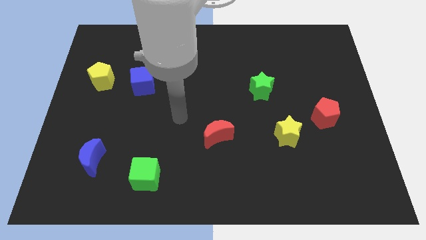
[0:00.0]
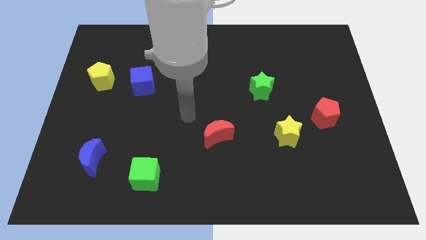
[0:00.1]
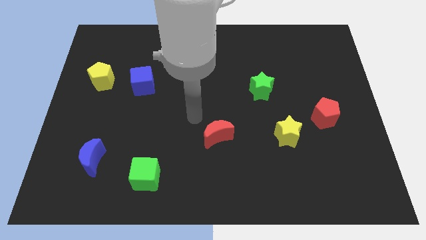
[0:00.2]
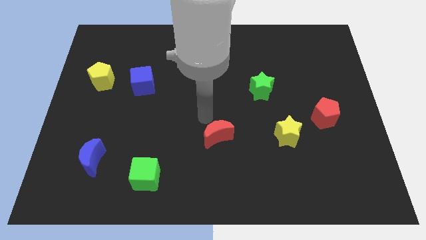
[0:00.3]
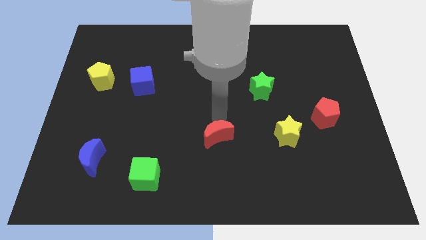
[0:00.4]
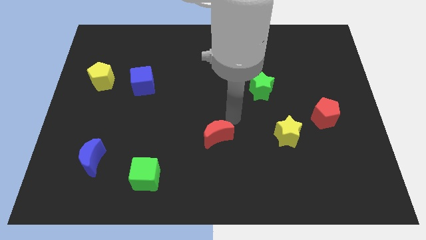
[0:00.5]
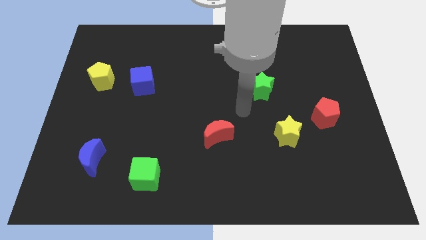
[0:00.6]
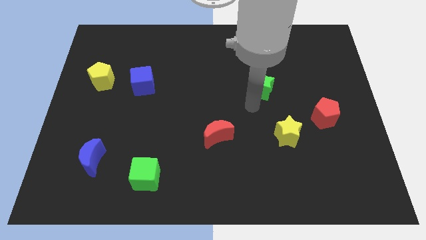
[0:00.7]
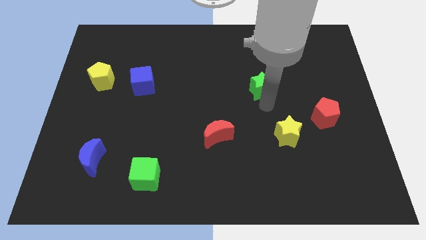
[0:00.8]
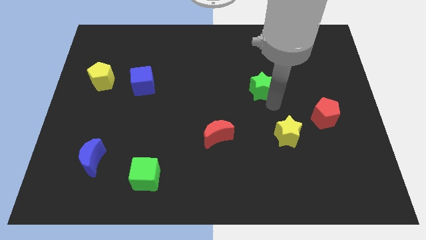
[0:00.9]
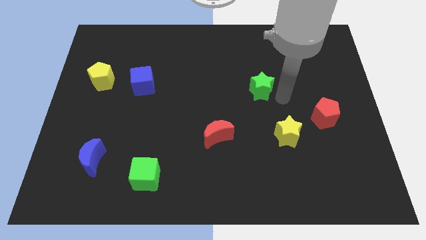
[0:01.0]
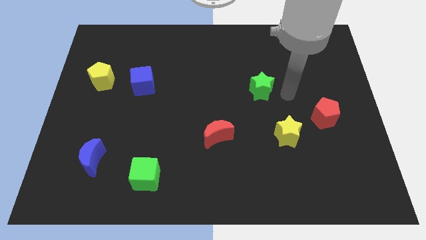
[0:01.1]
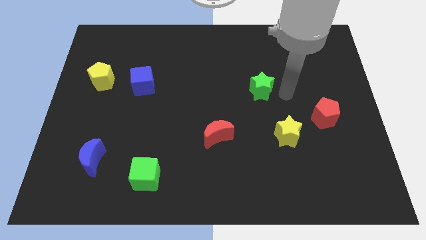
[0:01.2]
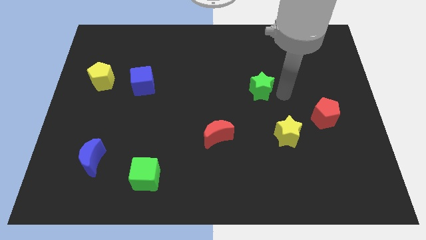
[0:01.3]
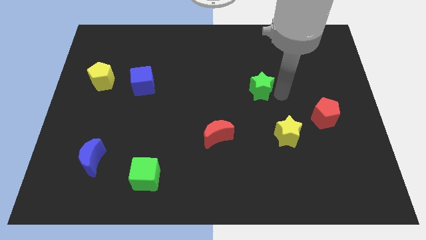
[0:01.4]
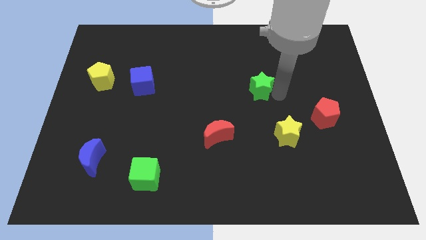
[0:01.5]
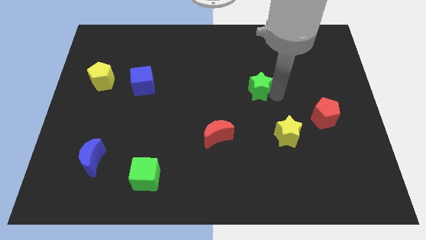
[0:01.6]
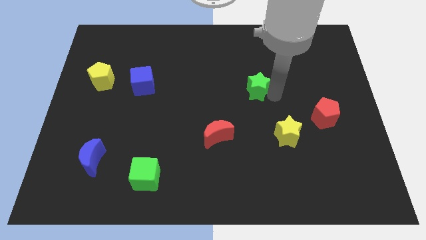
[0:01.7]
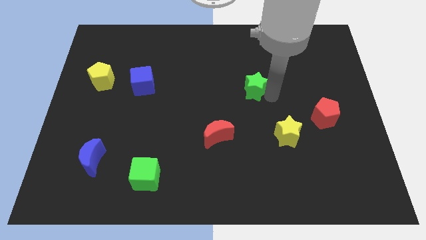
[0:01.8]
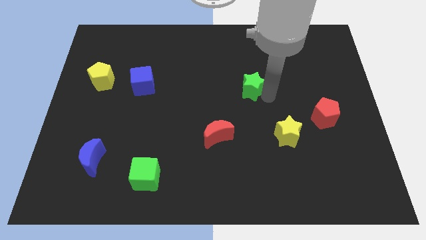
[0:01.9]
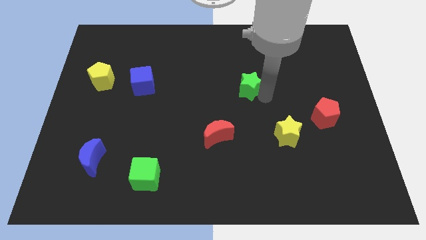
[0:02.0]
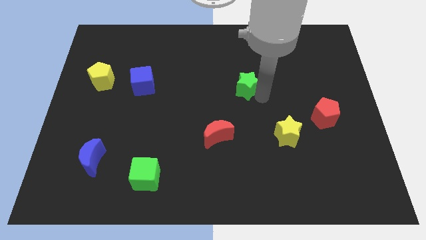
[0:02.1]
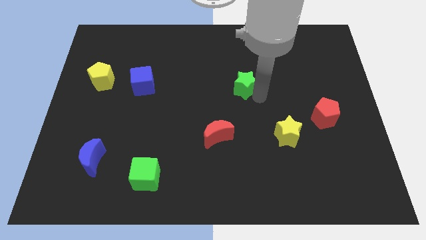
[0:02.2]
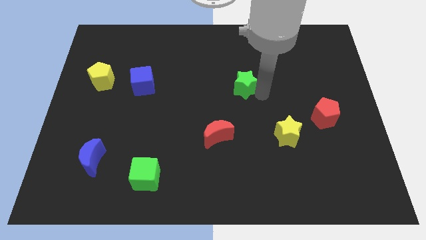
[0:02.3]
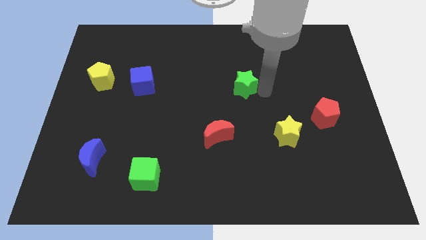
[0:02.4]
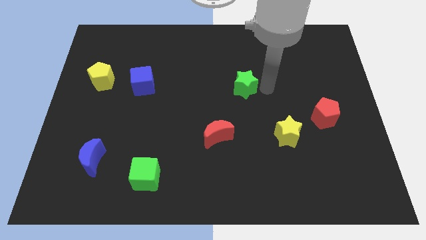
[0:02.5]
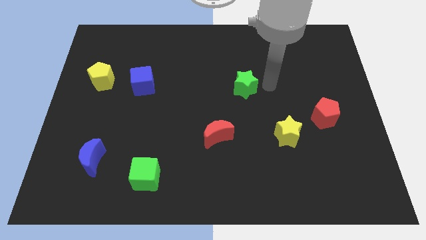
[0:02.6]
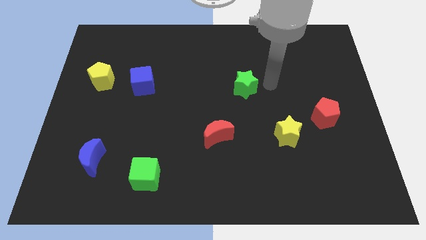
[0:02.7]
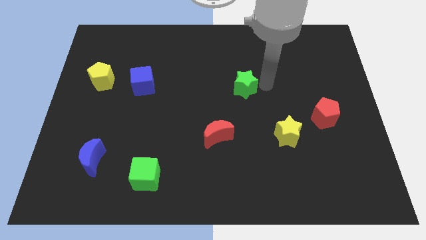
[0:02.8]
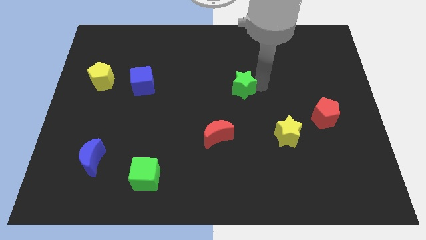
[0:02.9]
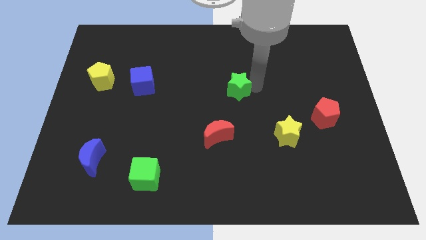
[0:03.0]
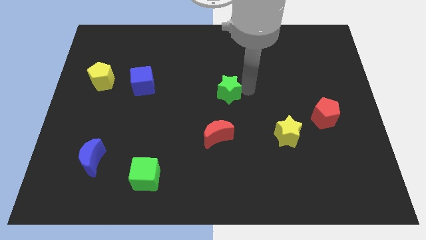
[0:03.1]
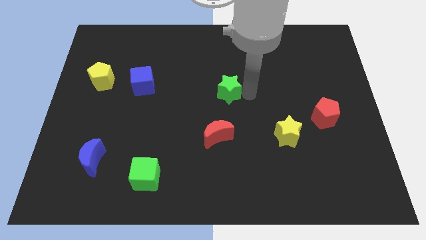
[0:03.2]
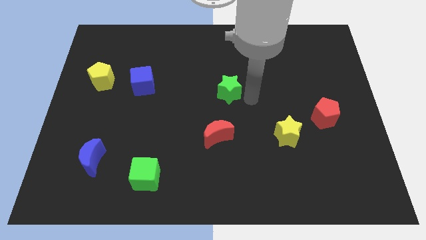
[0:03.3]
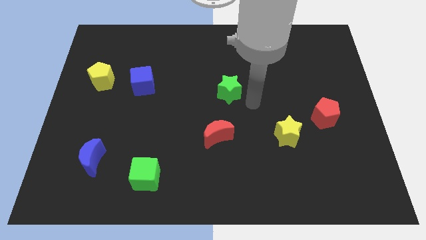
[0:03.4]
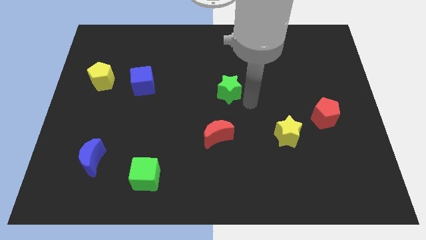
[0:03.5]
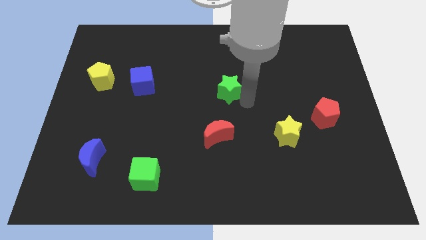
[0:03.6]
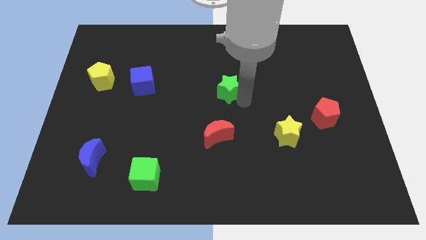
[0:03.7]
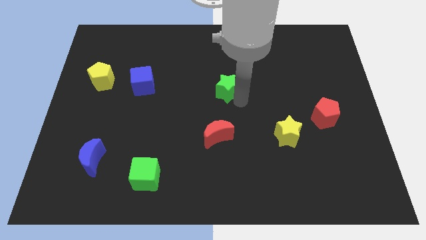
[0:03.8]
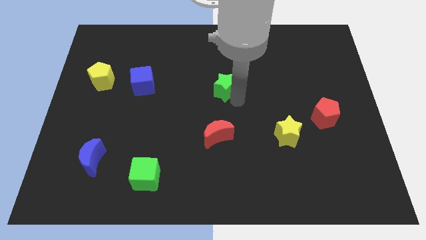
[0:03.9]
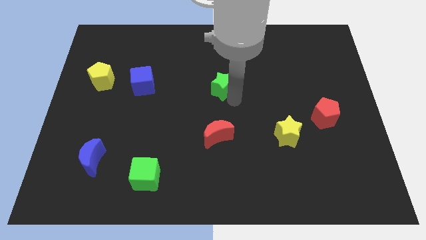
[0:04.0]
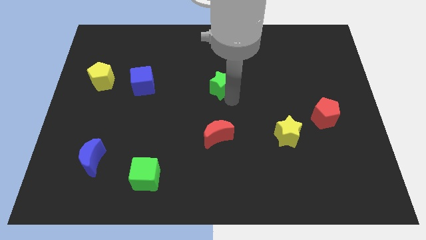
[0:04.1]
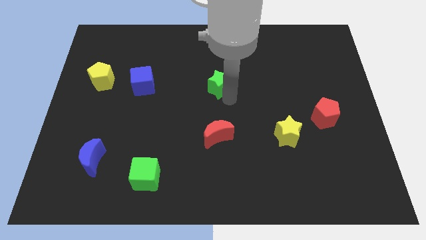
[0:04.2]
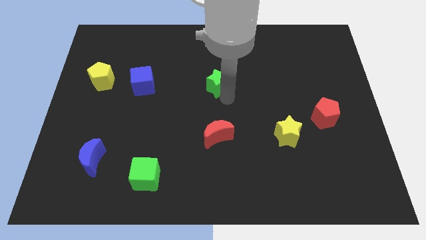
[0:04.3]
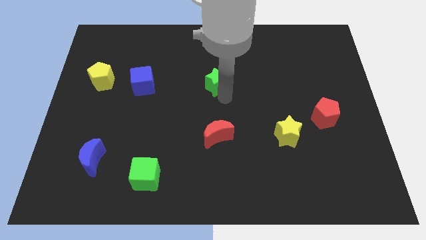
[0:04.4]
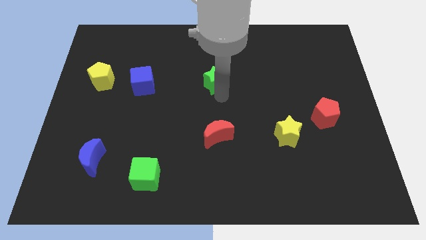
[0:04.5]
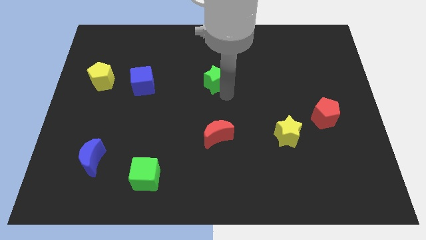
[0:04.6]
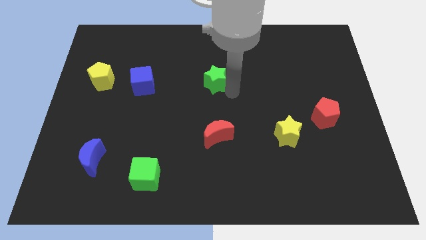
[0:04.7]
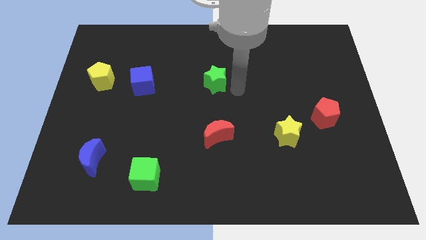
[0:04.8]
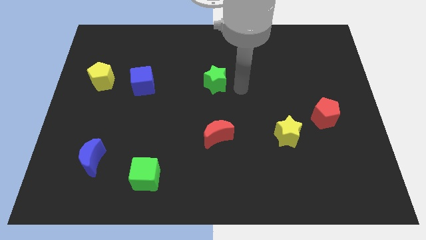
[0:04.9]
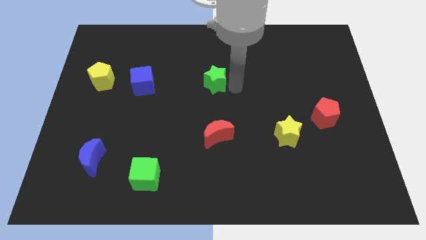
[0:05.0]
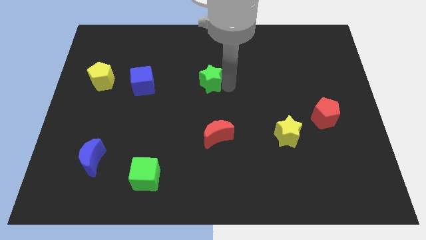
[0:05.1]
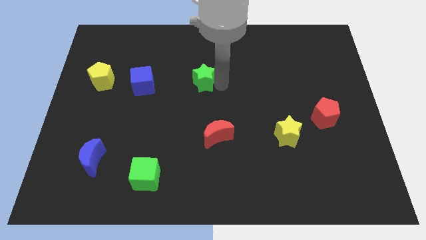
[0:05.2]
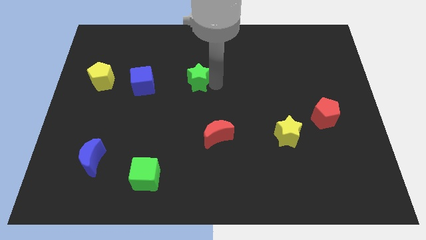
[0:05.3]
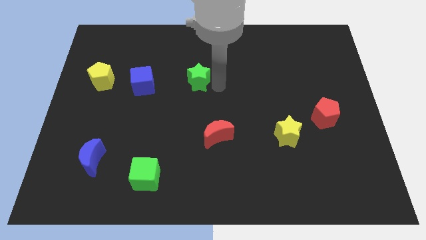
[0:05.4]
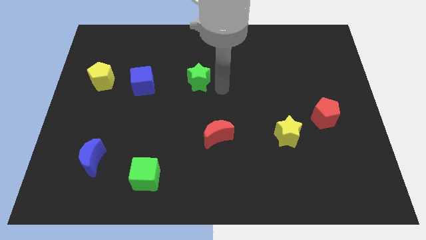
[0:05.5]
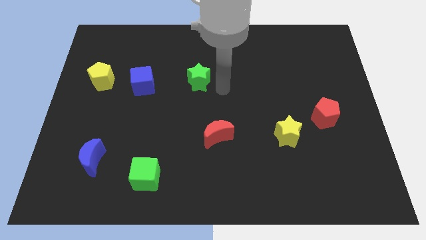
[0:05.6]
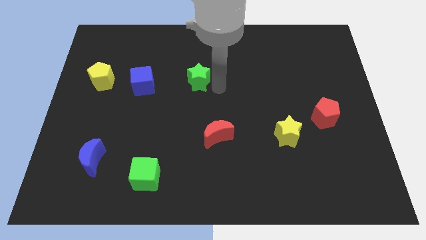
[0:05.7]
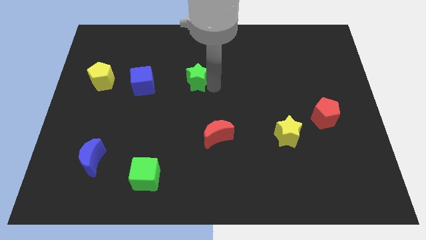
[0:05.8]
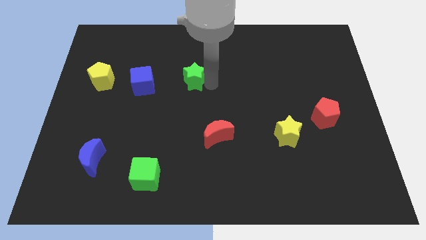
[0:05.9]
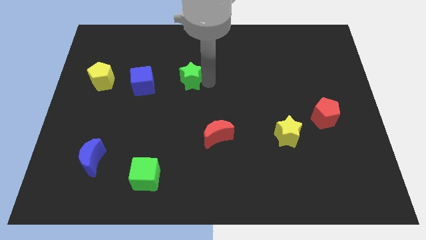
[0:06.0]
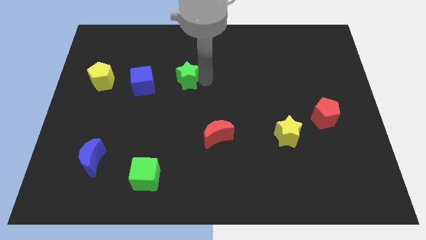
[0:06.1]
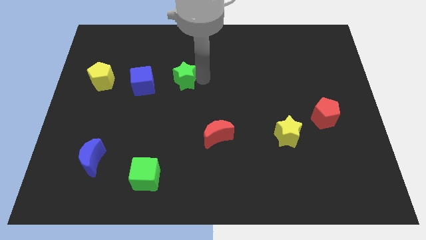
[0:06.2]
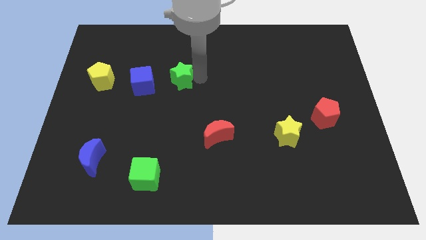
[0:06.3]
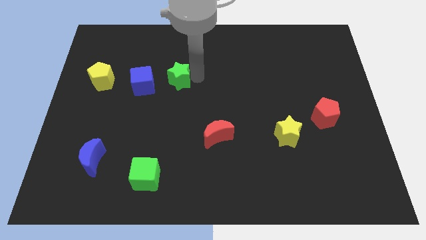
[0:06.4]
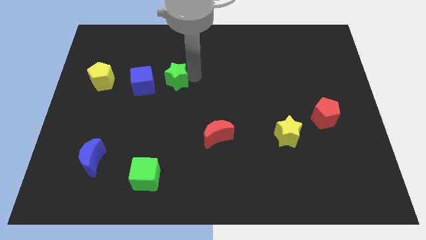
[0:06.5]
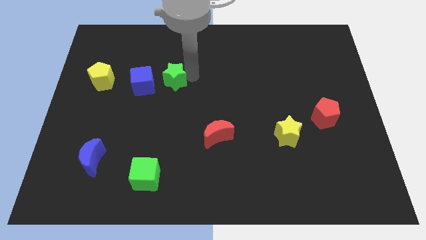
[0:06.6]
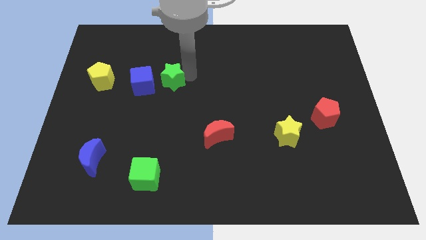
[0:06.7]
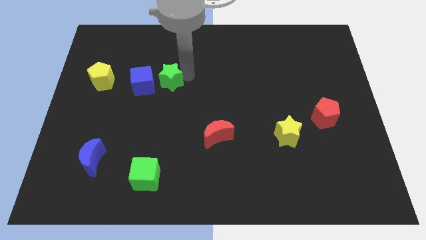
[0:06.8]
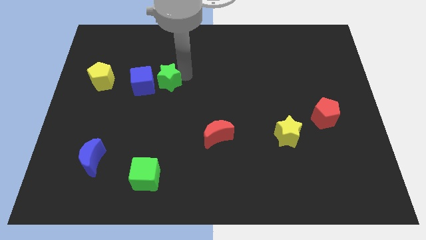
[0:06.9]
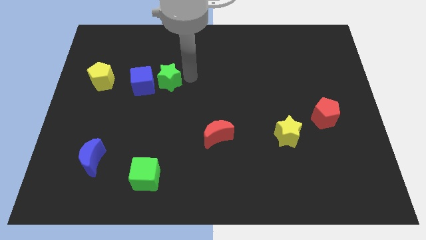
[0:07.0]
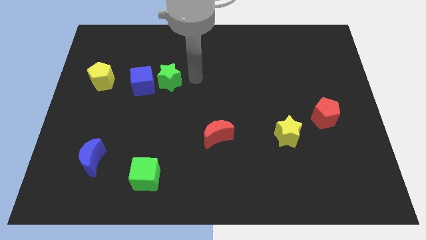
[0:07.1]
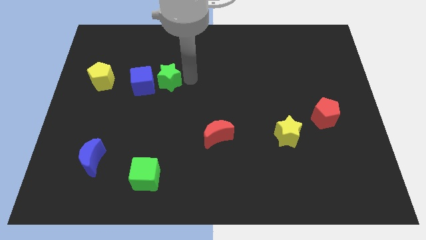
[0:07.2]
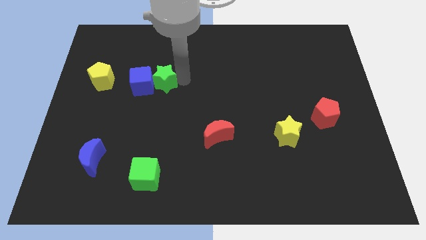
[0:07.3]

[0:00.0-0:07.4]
push the green star towards the blue cube

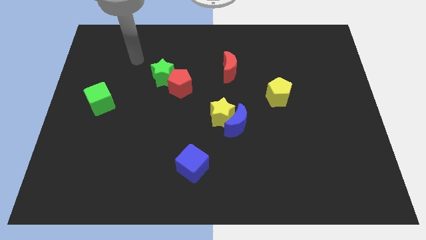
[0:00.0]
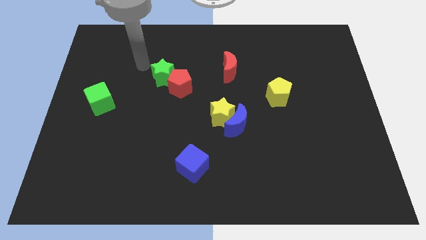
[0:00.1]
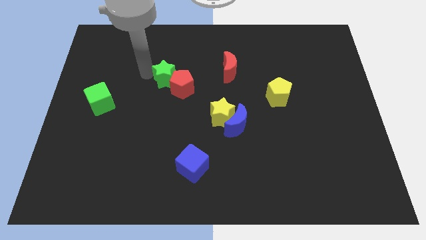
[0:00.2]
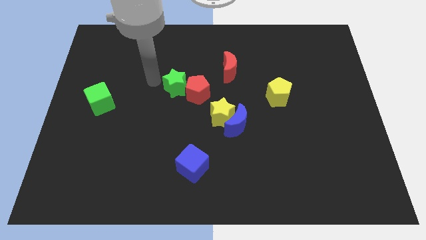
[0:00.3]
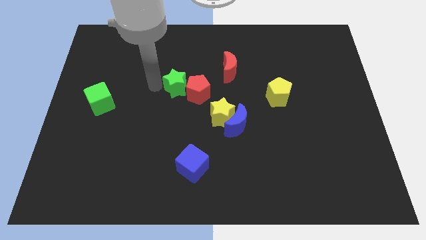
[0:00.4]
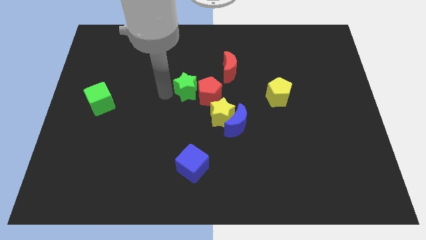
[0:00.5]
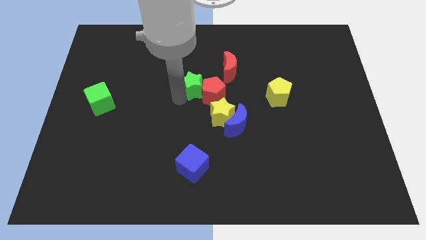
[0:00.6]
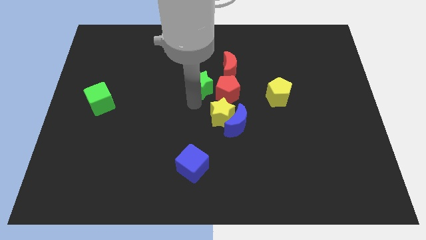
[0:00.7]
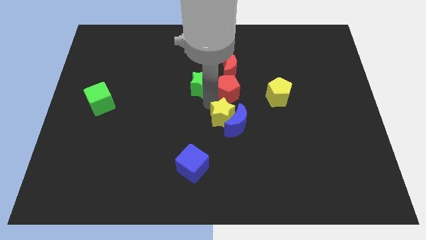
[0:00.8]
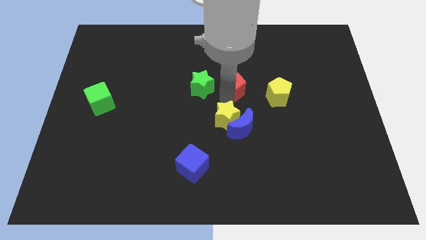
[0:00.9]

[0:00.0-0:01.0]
slide the red pentagon to the red moon
